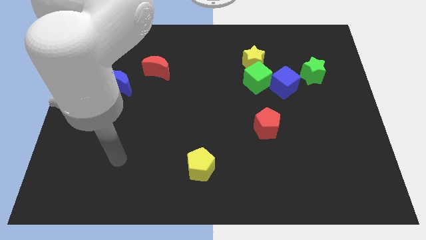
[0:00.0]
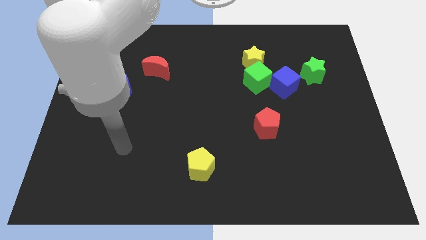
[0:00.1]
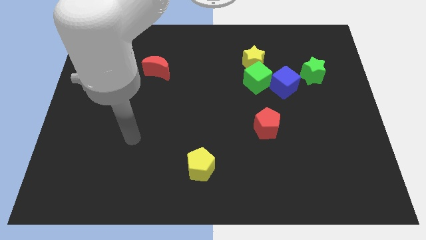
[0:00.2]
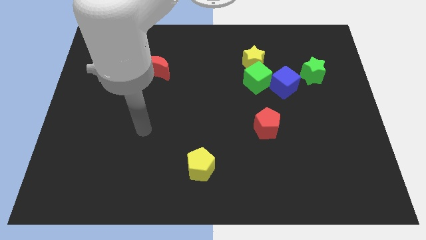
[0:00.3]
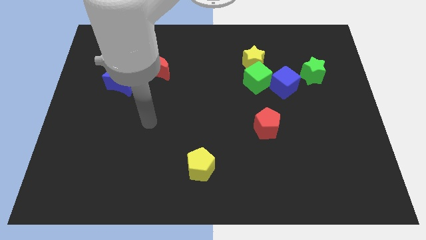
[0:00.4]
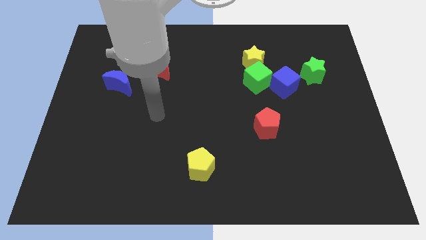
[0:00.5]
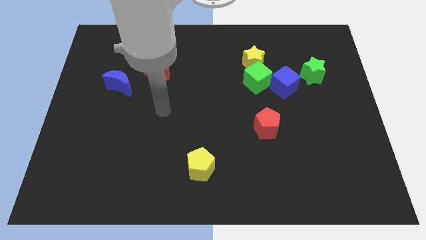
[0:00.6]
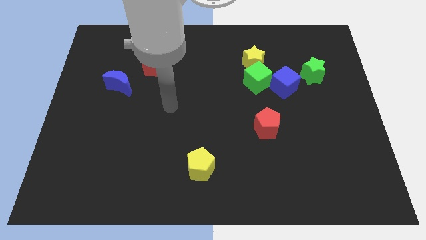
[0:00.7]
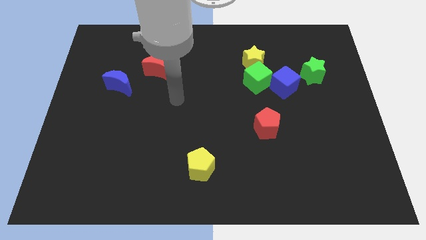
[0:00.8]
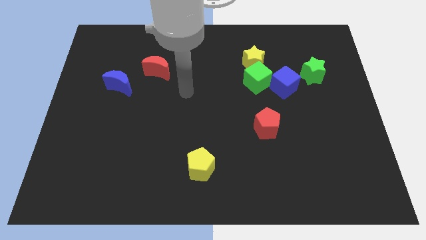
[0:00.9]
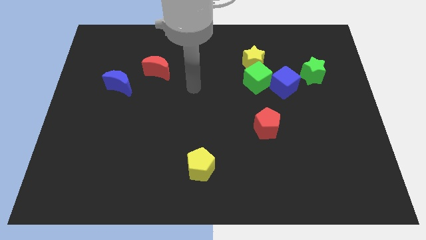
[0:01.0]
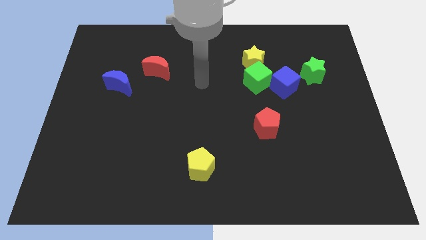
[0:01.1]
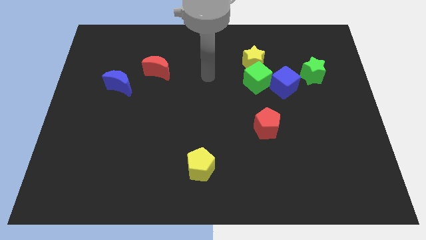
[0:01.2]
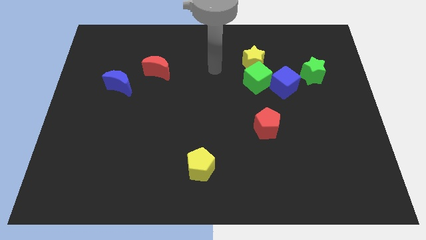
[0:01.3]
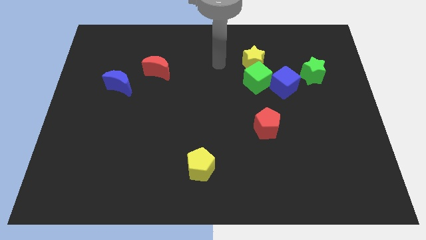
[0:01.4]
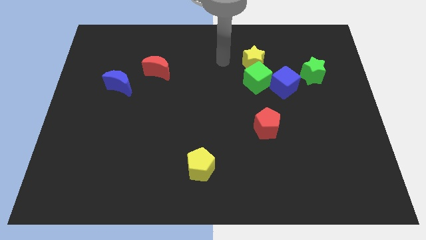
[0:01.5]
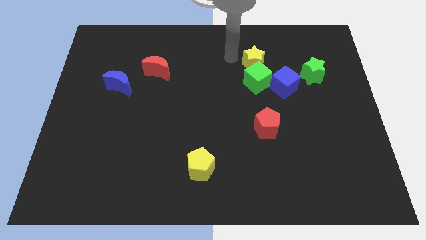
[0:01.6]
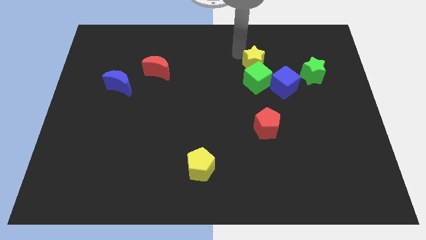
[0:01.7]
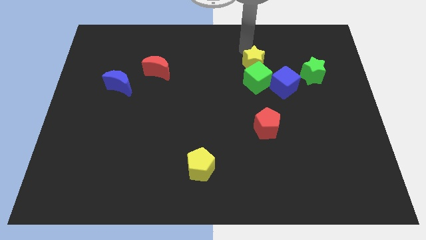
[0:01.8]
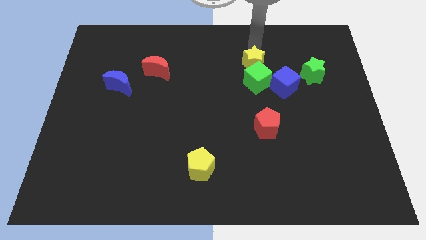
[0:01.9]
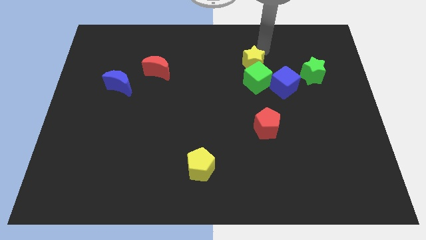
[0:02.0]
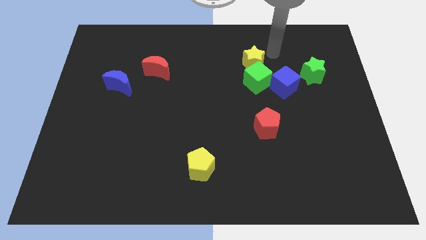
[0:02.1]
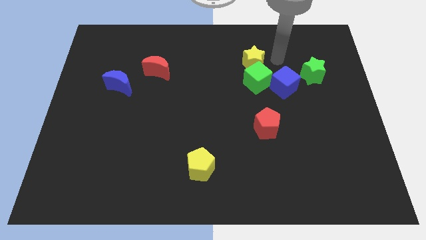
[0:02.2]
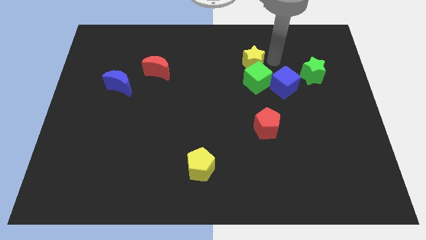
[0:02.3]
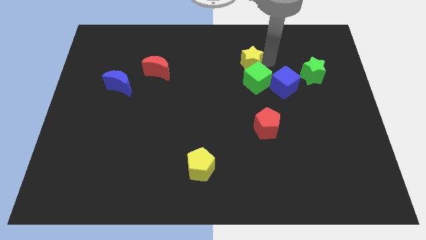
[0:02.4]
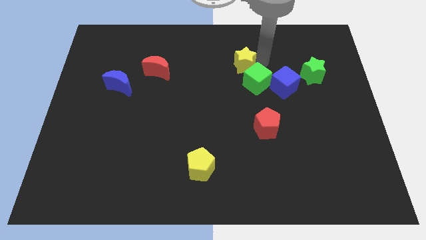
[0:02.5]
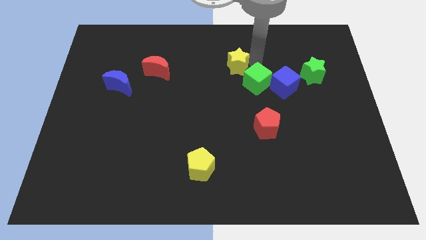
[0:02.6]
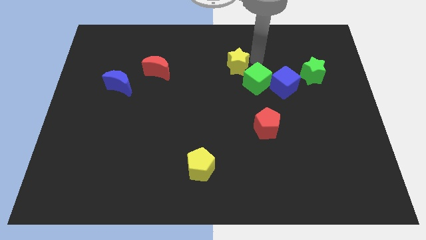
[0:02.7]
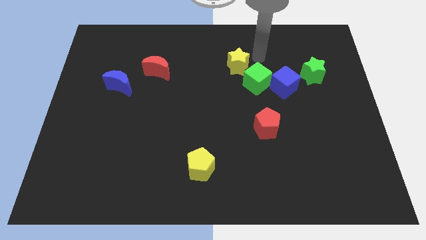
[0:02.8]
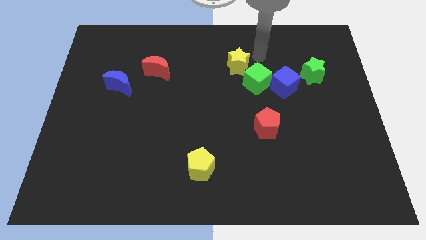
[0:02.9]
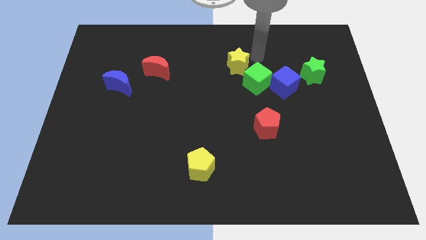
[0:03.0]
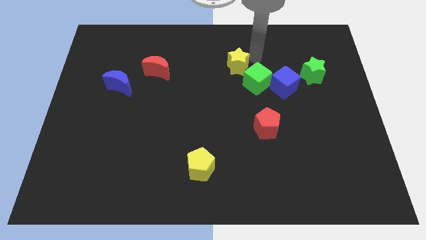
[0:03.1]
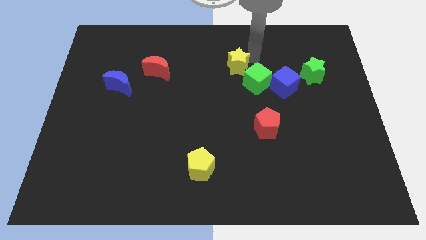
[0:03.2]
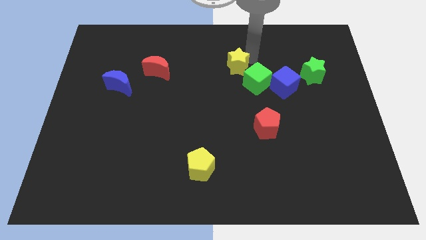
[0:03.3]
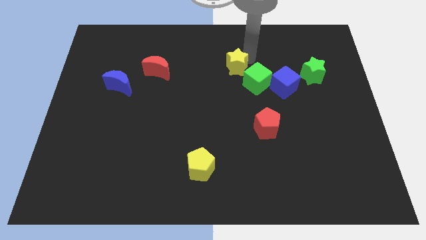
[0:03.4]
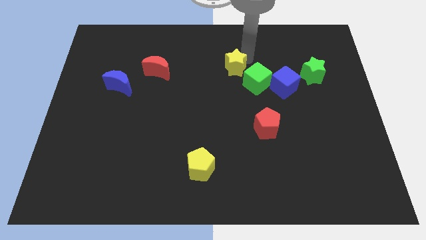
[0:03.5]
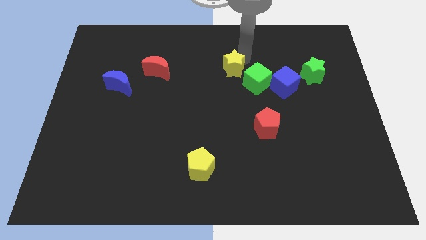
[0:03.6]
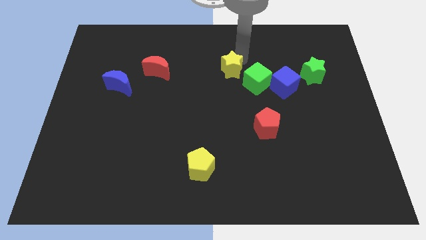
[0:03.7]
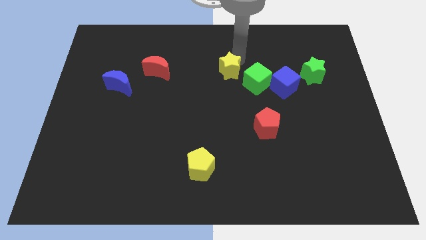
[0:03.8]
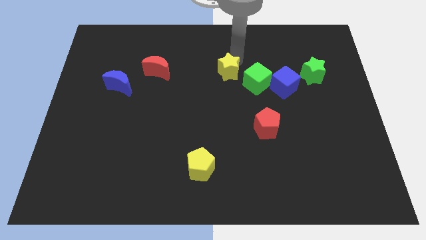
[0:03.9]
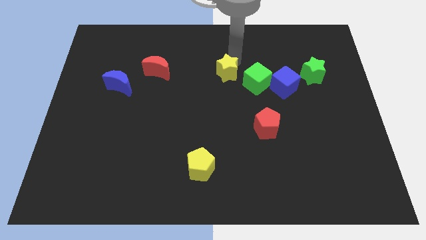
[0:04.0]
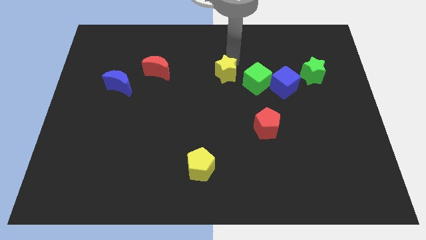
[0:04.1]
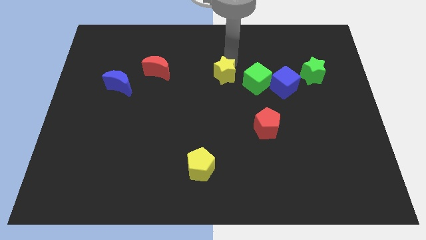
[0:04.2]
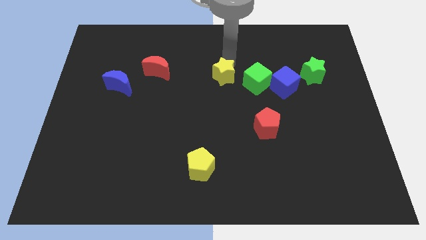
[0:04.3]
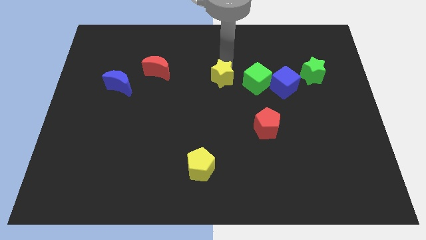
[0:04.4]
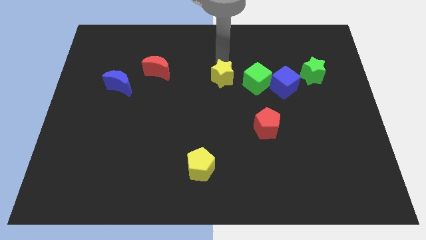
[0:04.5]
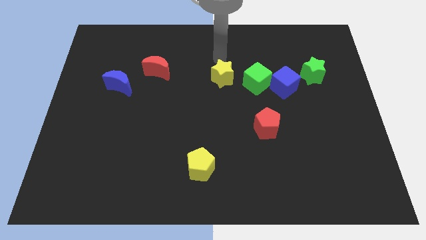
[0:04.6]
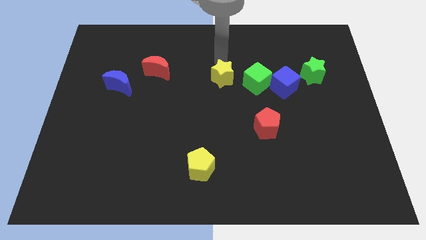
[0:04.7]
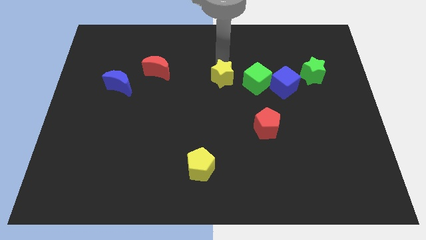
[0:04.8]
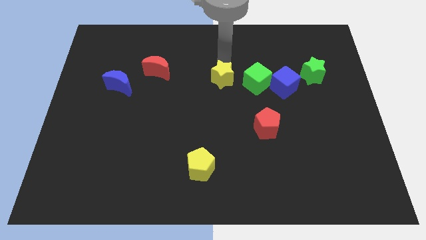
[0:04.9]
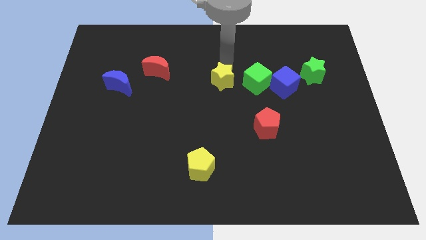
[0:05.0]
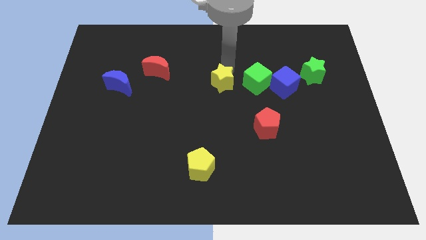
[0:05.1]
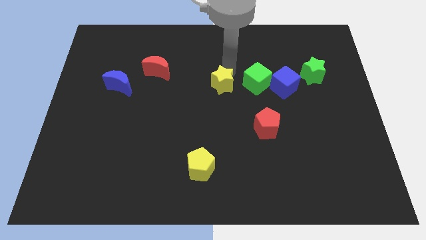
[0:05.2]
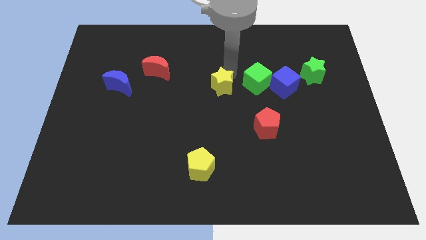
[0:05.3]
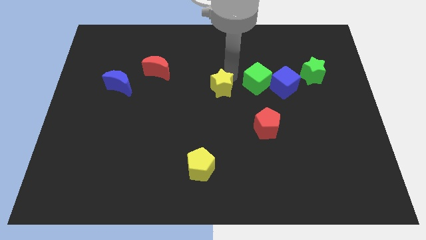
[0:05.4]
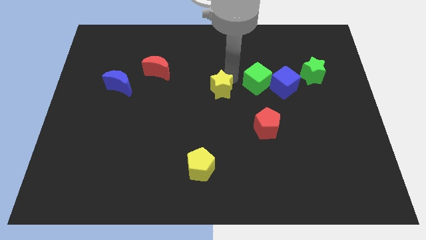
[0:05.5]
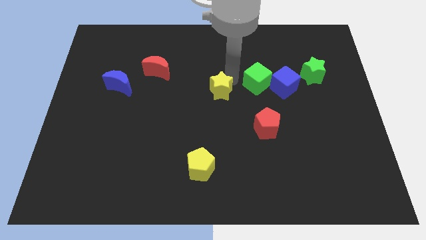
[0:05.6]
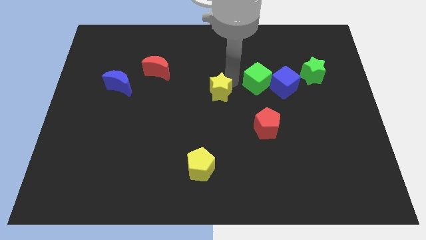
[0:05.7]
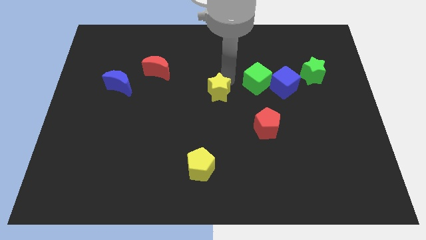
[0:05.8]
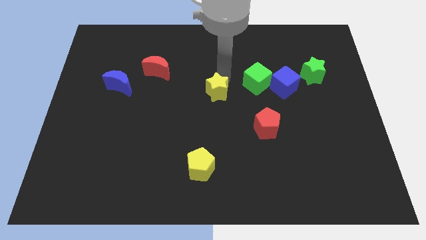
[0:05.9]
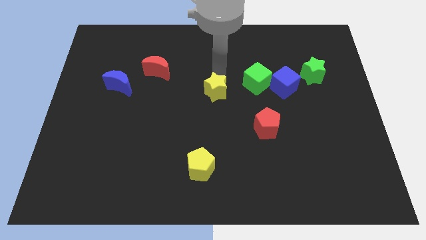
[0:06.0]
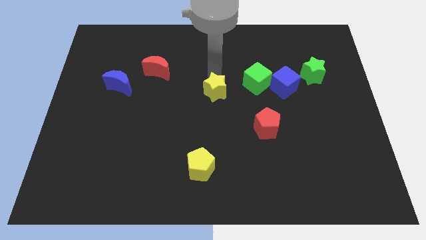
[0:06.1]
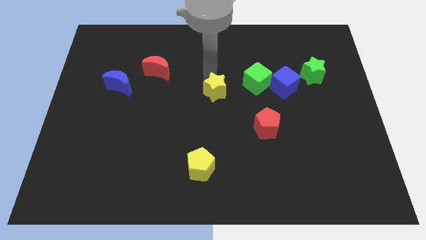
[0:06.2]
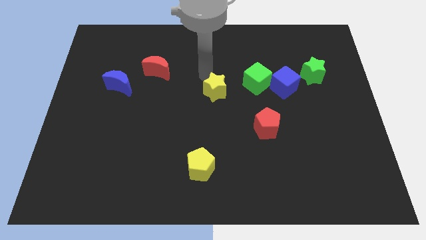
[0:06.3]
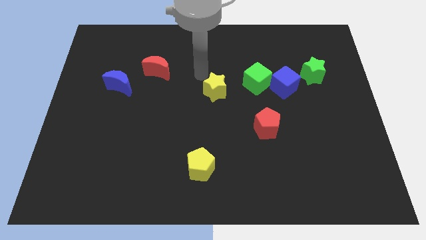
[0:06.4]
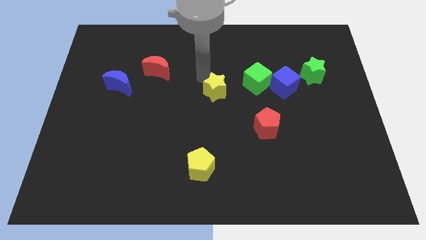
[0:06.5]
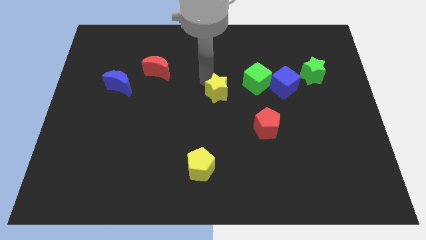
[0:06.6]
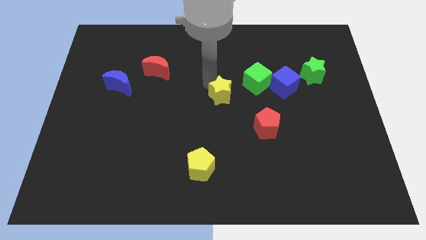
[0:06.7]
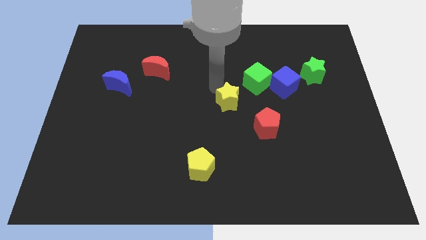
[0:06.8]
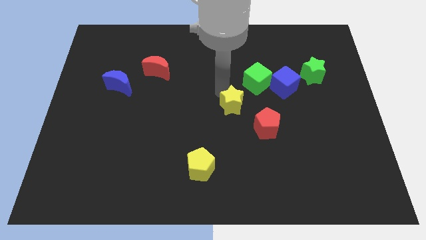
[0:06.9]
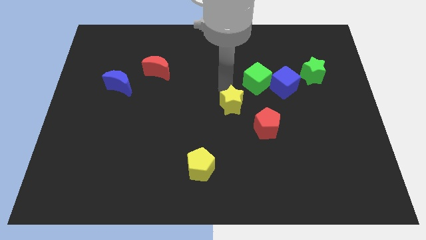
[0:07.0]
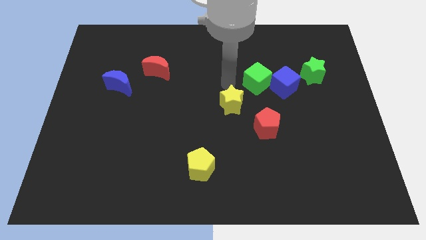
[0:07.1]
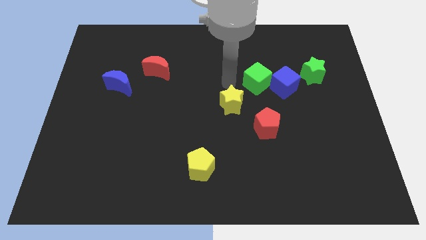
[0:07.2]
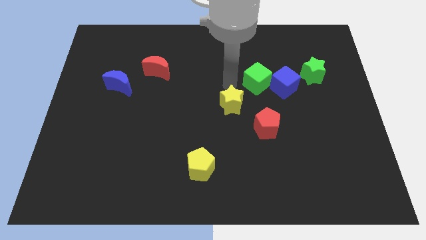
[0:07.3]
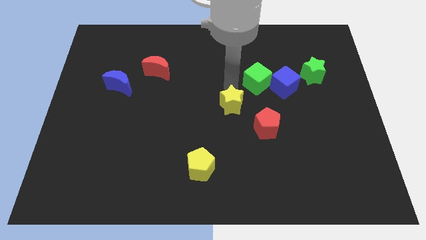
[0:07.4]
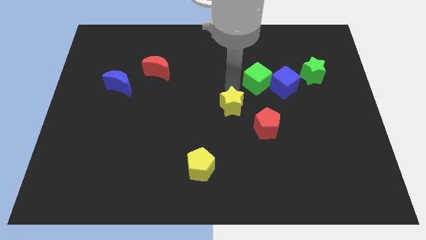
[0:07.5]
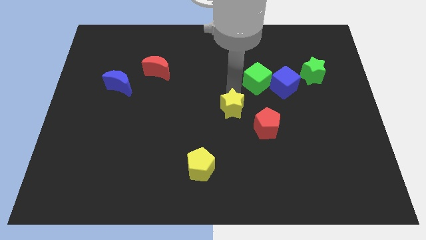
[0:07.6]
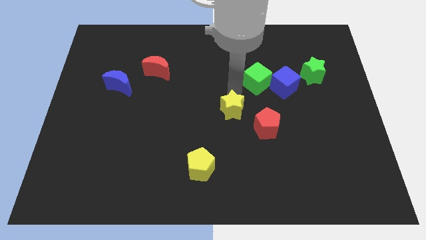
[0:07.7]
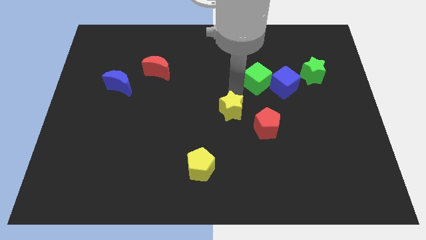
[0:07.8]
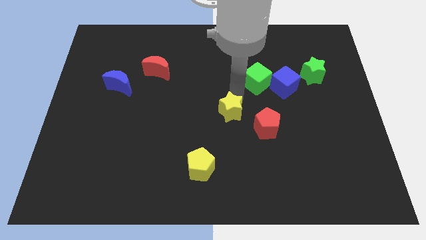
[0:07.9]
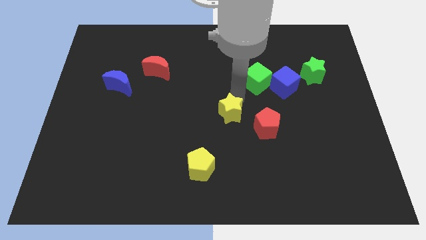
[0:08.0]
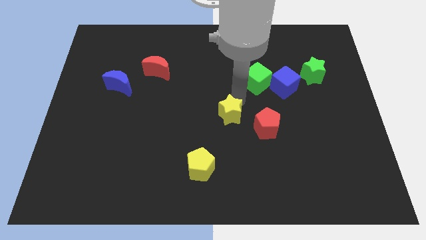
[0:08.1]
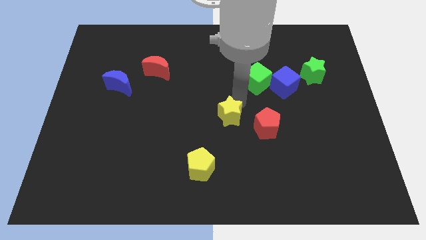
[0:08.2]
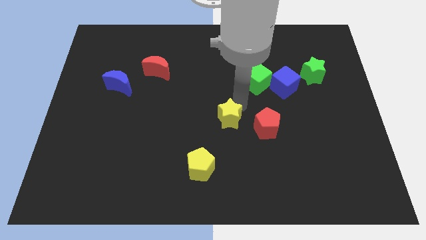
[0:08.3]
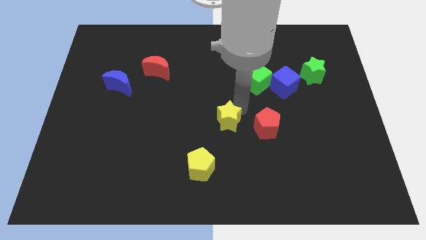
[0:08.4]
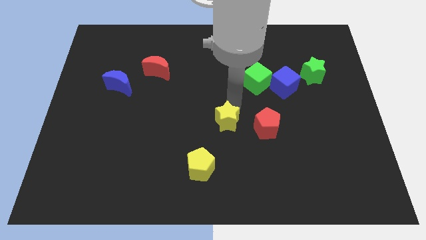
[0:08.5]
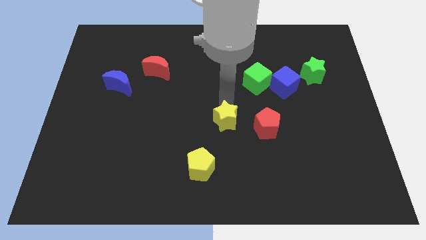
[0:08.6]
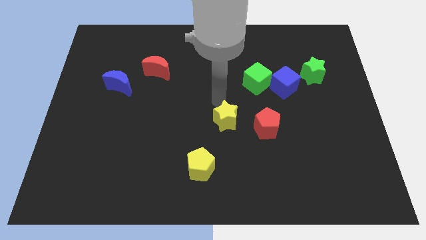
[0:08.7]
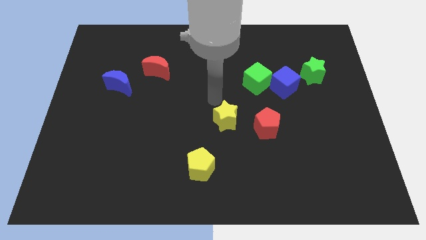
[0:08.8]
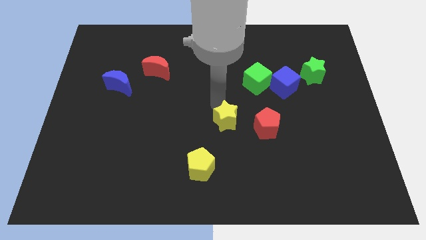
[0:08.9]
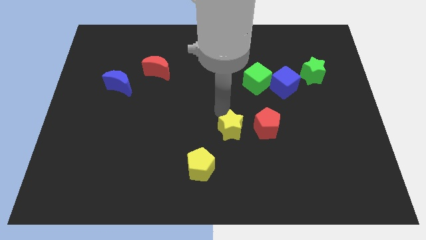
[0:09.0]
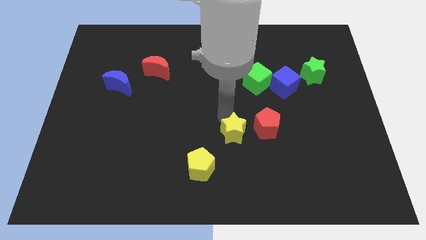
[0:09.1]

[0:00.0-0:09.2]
move the yellow star to the bottom left side of the red pentagon
